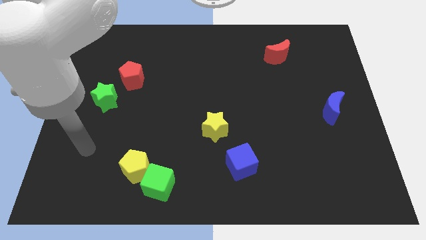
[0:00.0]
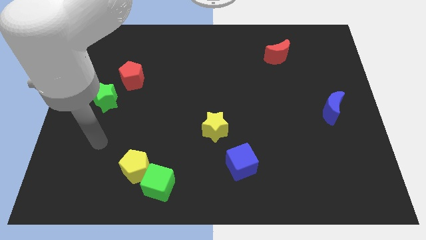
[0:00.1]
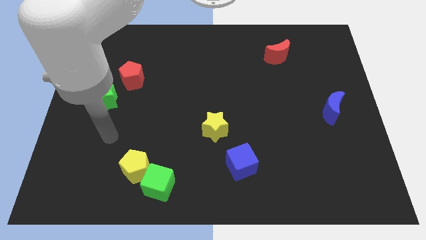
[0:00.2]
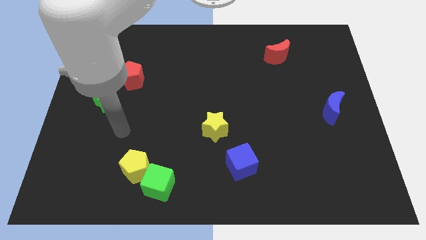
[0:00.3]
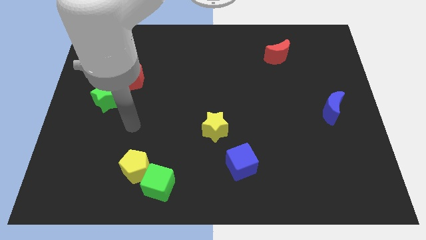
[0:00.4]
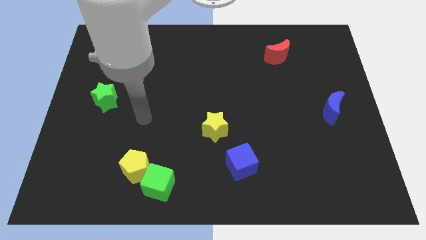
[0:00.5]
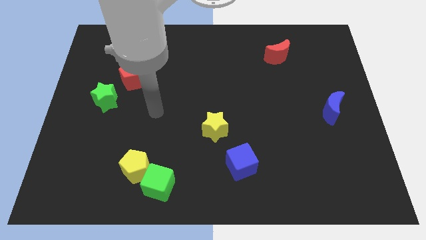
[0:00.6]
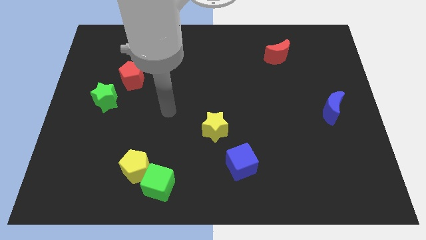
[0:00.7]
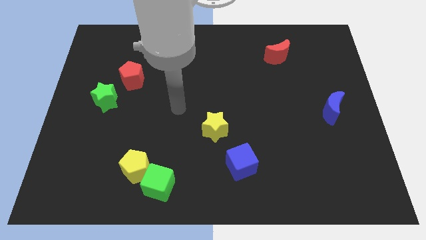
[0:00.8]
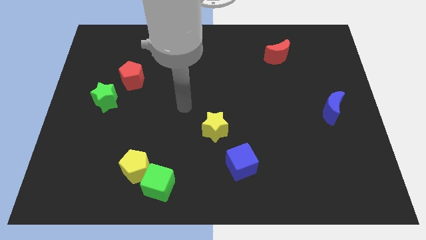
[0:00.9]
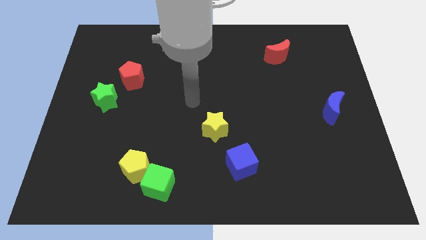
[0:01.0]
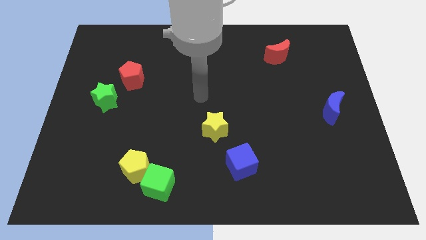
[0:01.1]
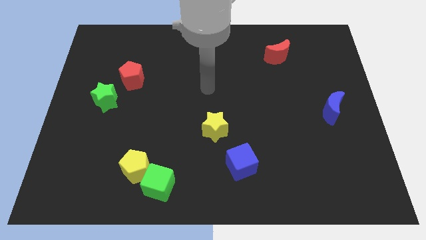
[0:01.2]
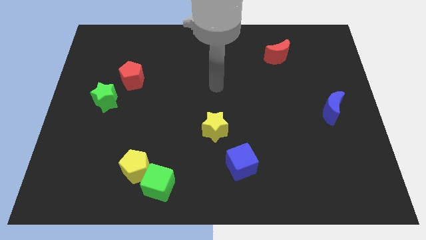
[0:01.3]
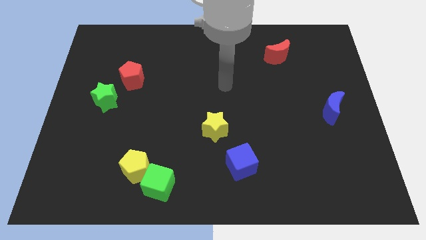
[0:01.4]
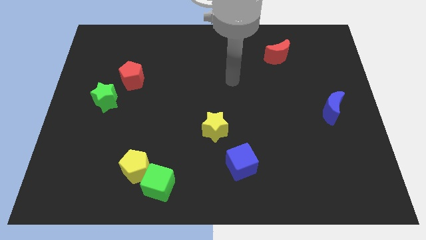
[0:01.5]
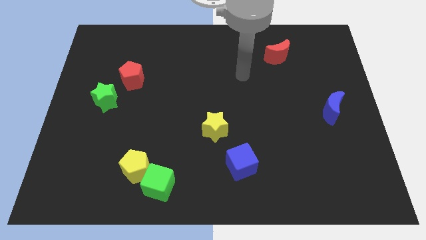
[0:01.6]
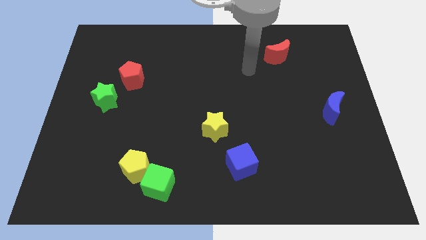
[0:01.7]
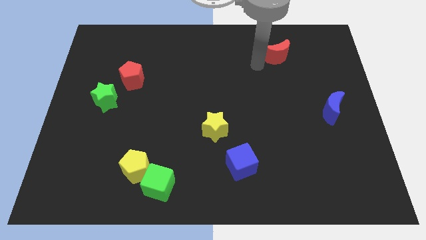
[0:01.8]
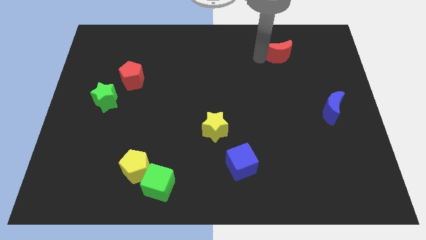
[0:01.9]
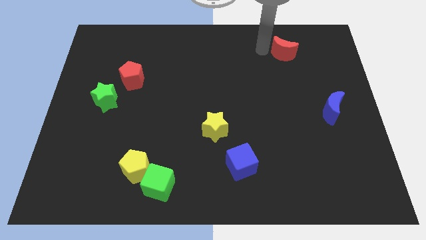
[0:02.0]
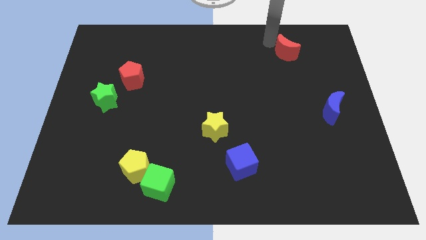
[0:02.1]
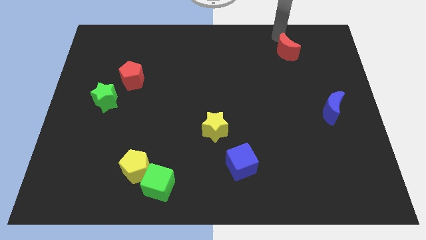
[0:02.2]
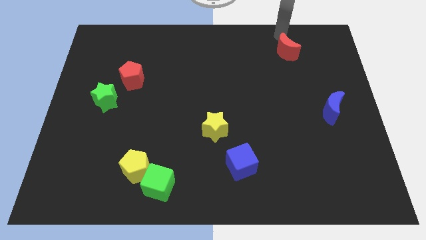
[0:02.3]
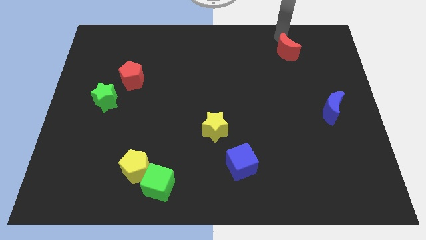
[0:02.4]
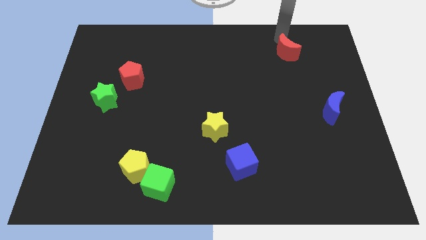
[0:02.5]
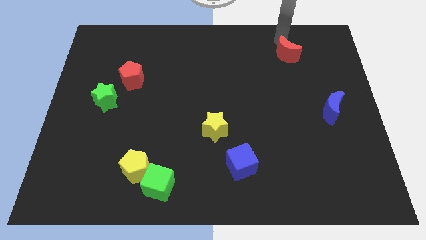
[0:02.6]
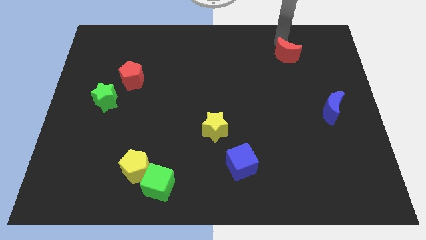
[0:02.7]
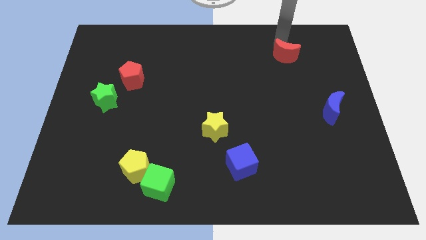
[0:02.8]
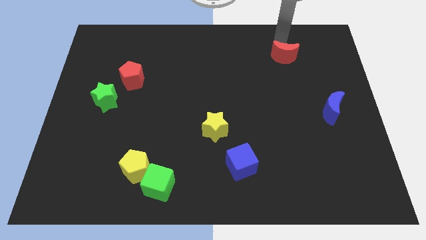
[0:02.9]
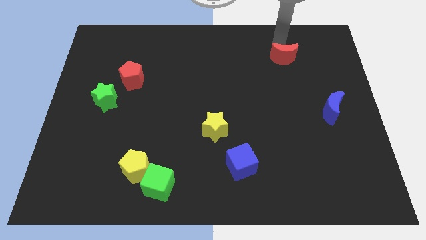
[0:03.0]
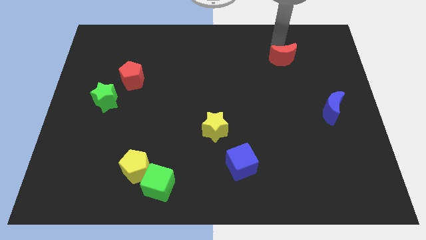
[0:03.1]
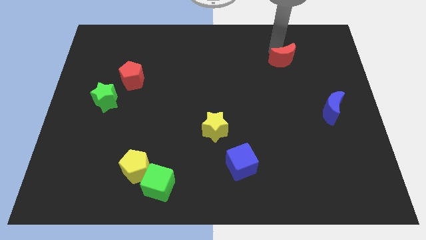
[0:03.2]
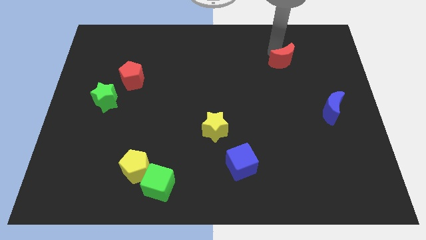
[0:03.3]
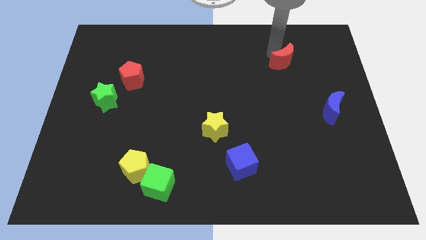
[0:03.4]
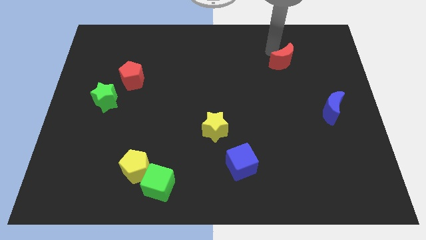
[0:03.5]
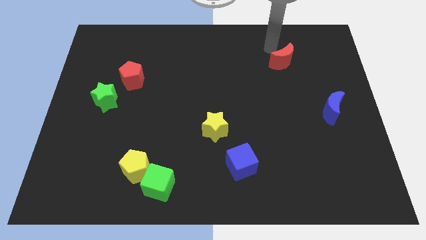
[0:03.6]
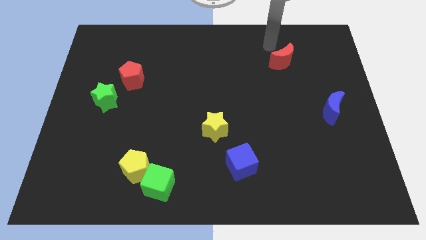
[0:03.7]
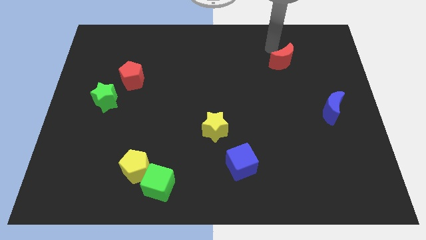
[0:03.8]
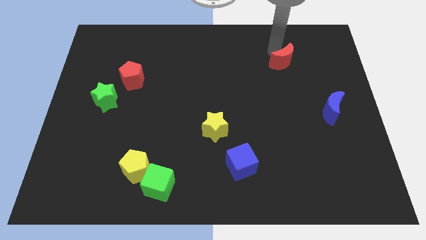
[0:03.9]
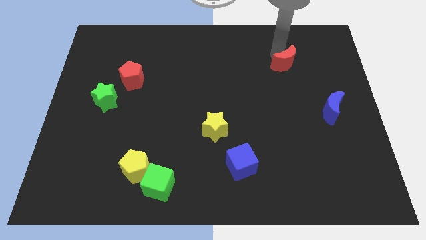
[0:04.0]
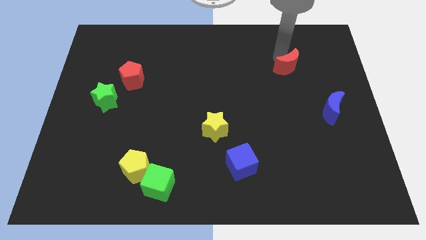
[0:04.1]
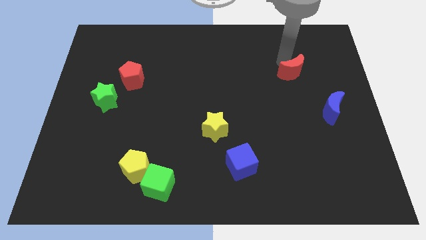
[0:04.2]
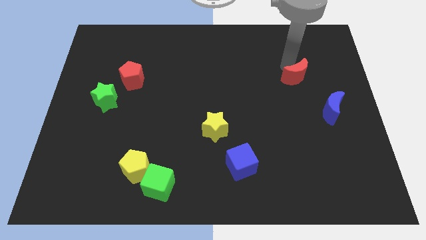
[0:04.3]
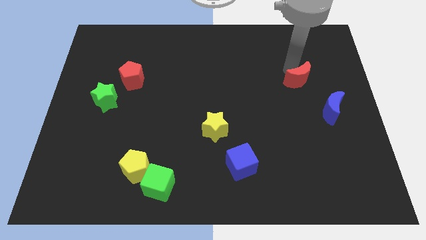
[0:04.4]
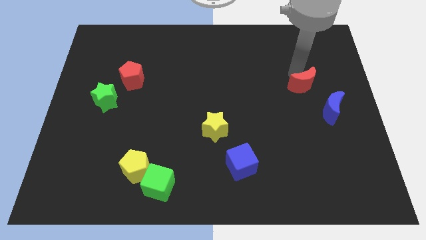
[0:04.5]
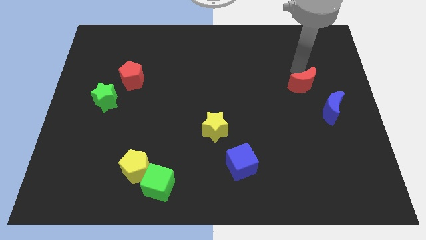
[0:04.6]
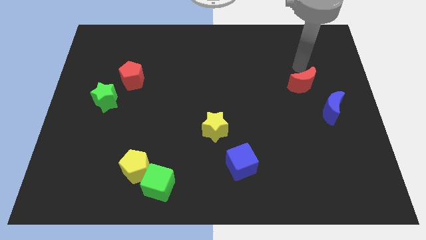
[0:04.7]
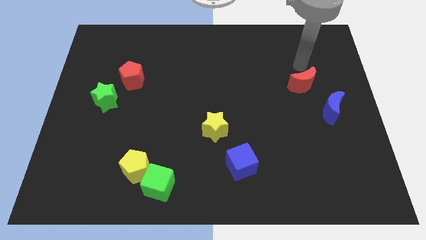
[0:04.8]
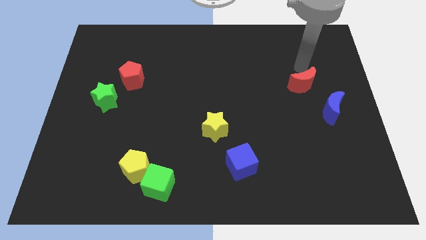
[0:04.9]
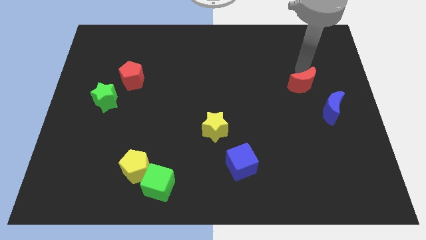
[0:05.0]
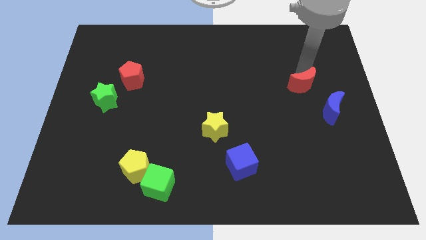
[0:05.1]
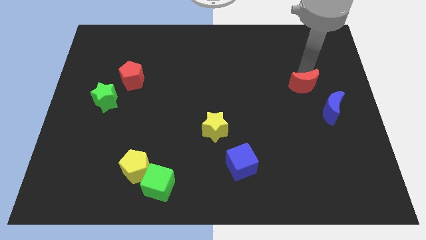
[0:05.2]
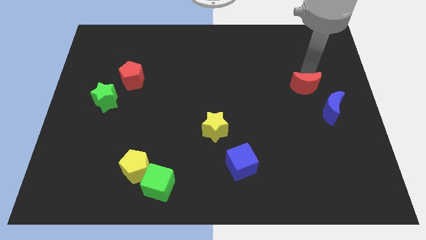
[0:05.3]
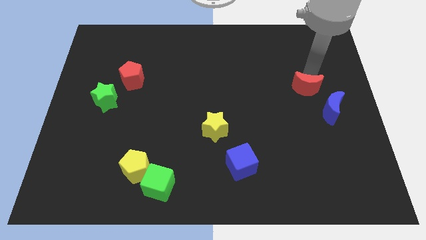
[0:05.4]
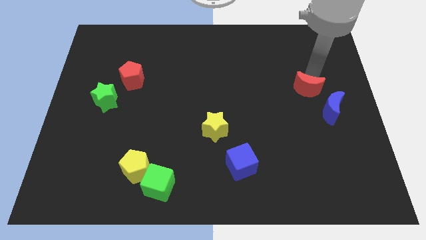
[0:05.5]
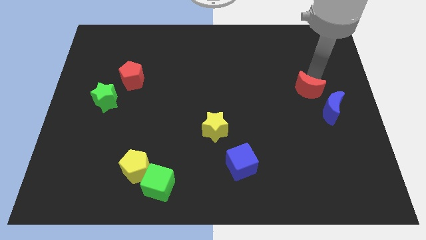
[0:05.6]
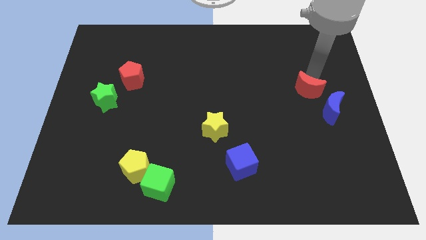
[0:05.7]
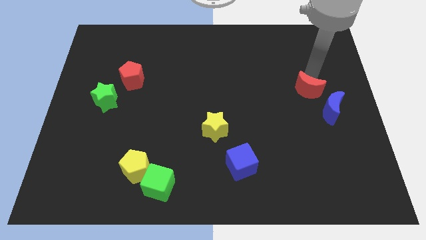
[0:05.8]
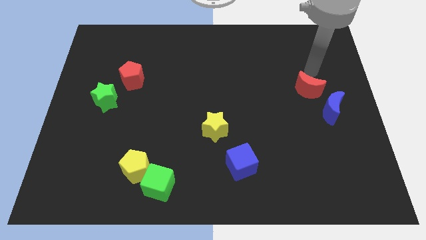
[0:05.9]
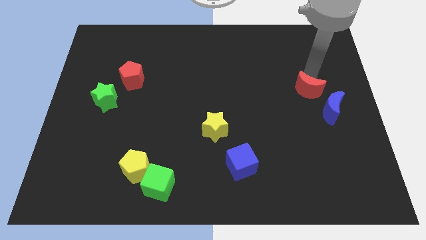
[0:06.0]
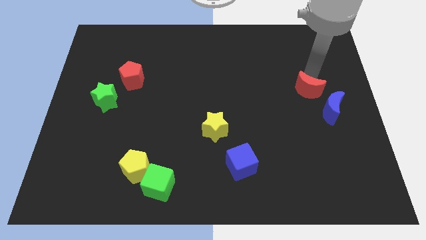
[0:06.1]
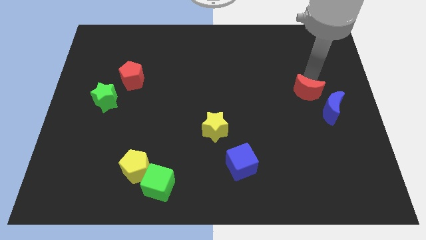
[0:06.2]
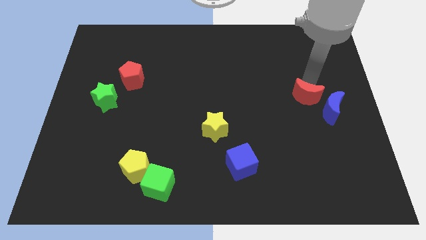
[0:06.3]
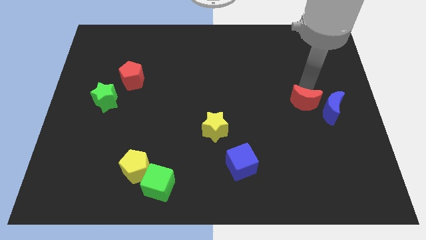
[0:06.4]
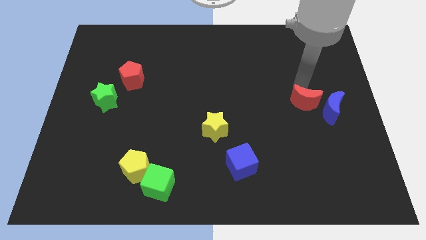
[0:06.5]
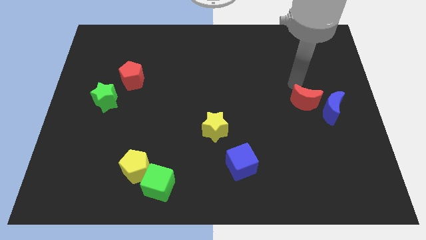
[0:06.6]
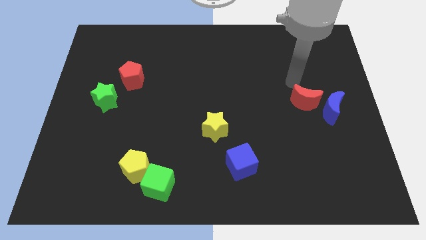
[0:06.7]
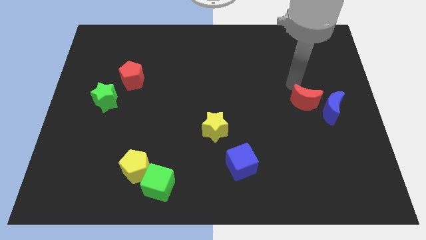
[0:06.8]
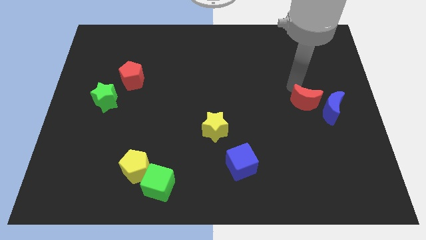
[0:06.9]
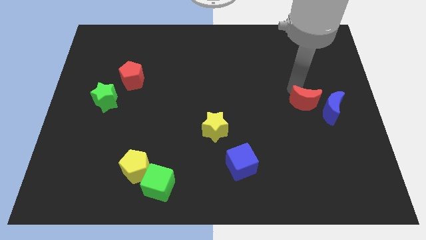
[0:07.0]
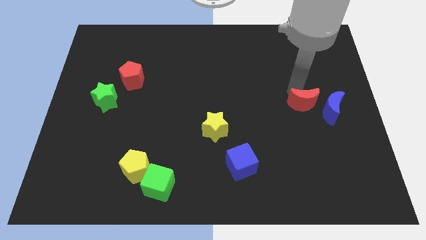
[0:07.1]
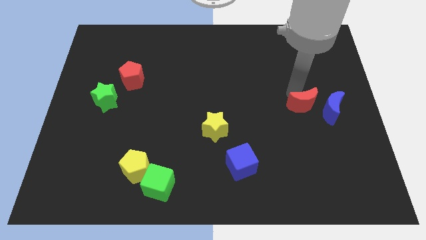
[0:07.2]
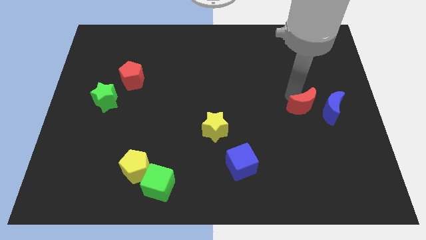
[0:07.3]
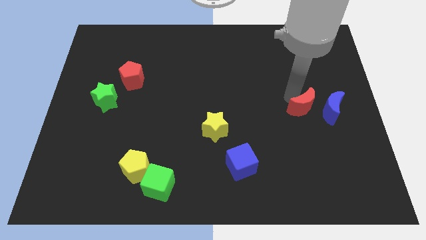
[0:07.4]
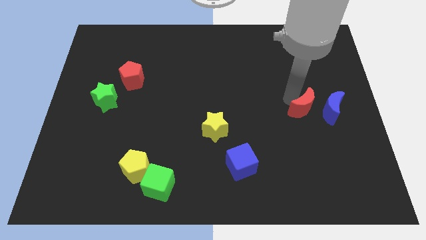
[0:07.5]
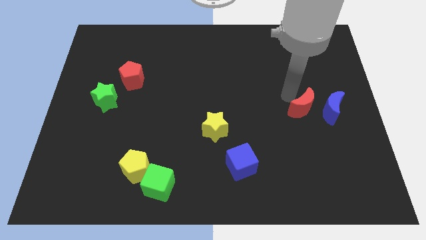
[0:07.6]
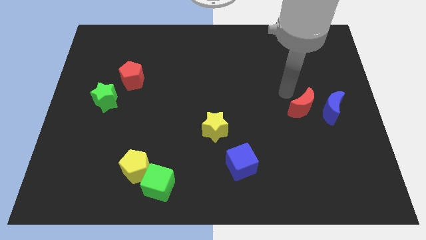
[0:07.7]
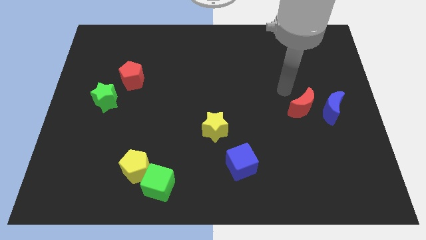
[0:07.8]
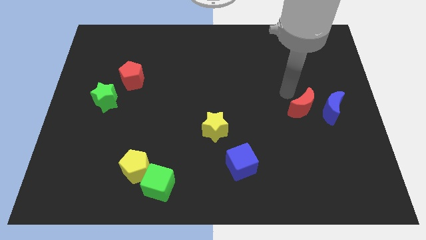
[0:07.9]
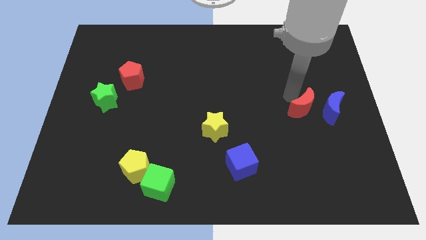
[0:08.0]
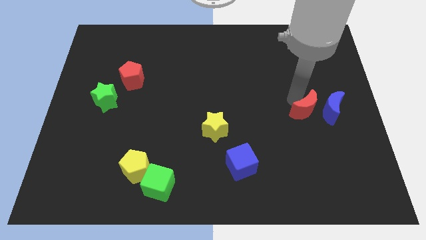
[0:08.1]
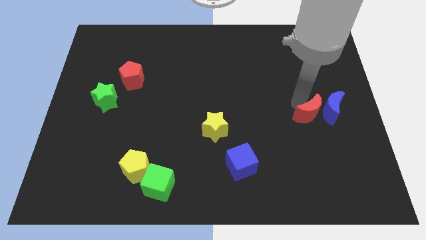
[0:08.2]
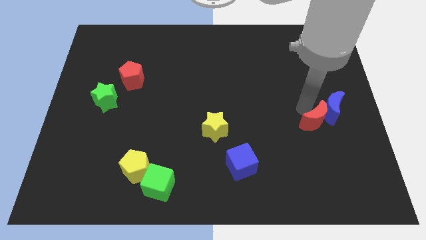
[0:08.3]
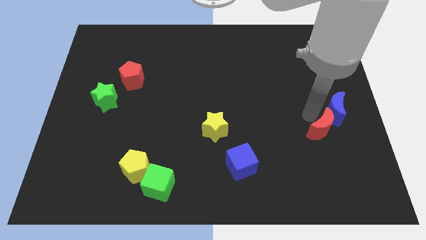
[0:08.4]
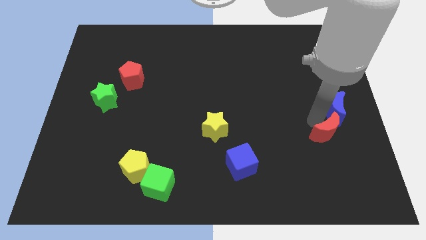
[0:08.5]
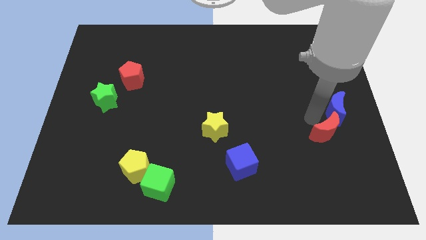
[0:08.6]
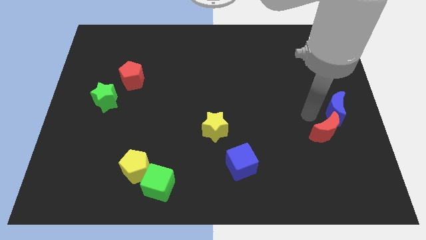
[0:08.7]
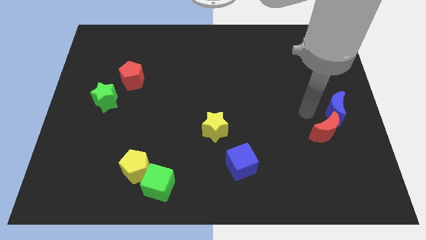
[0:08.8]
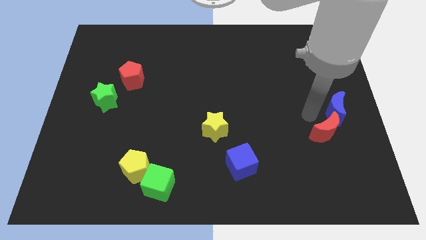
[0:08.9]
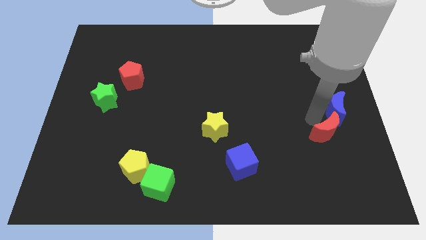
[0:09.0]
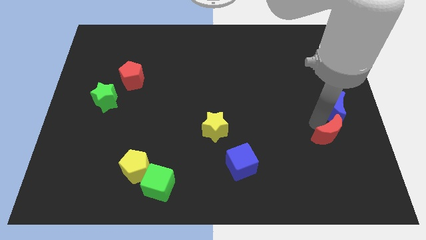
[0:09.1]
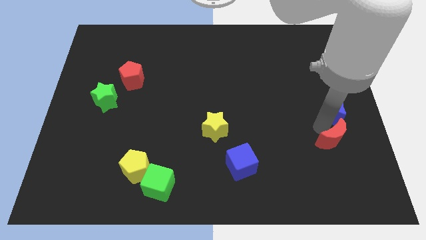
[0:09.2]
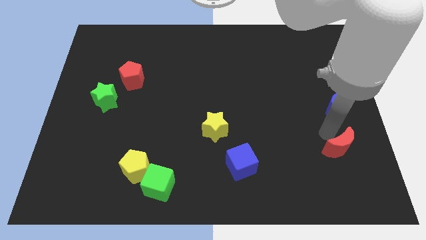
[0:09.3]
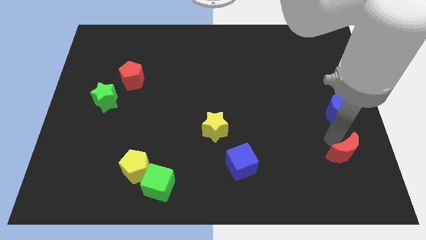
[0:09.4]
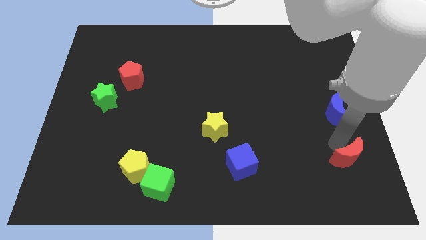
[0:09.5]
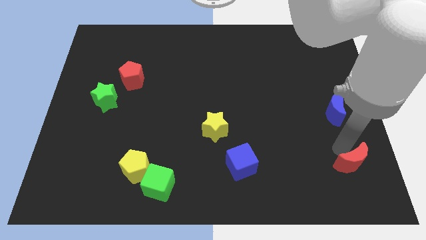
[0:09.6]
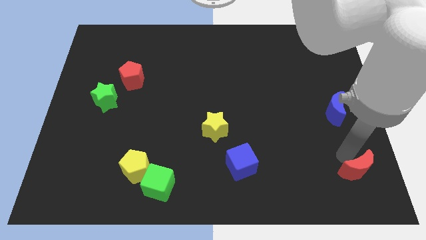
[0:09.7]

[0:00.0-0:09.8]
move the red moon to the bottom right of the board
